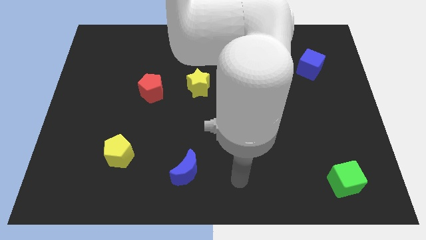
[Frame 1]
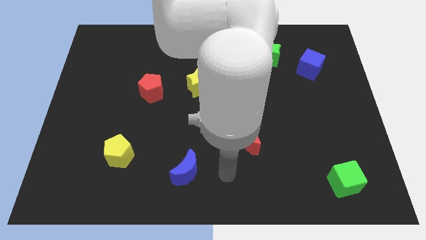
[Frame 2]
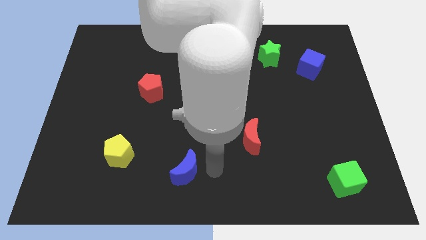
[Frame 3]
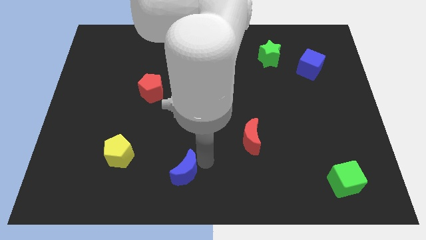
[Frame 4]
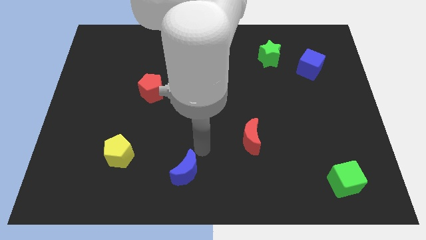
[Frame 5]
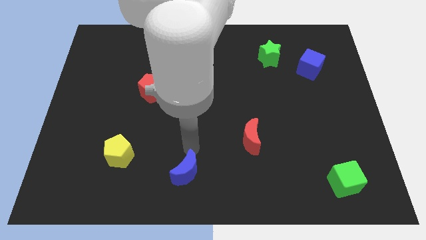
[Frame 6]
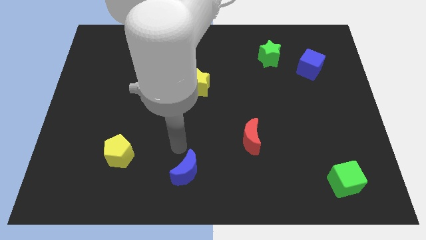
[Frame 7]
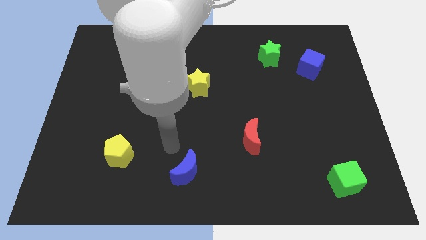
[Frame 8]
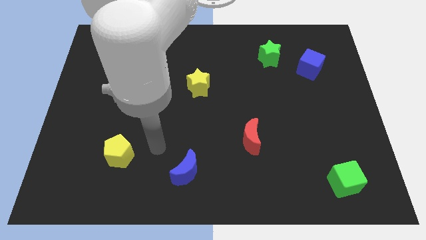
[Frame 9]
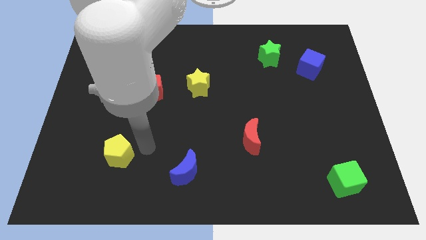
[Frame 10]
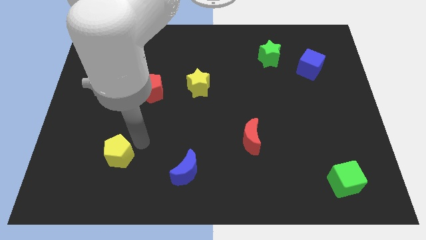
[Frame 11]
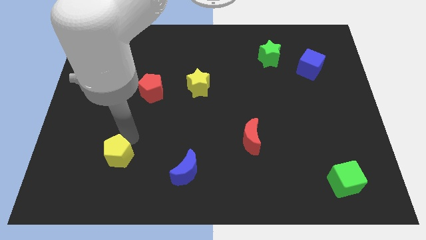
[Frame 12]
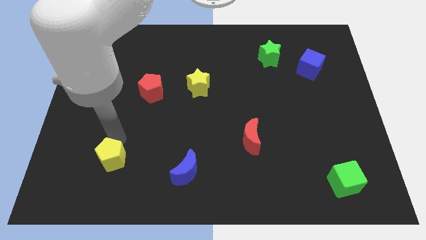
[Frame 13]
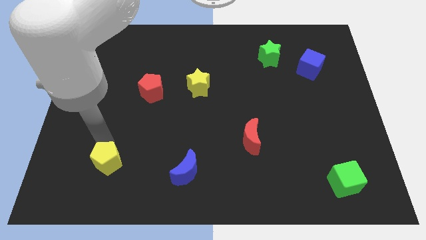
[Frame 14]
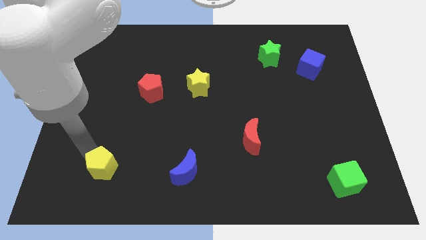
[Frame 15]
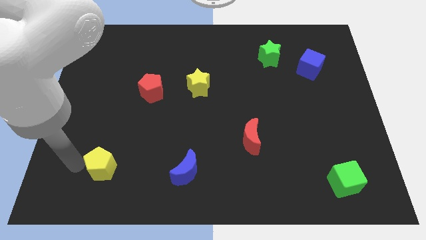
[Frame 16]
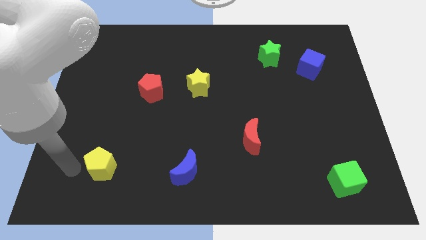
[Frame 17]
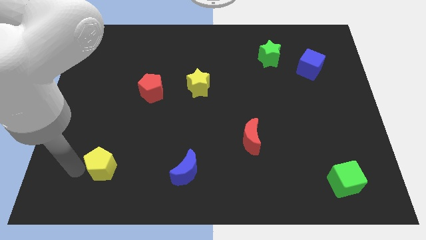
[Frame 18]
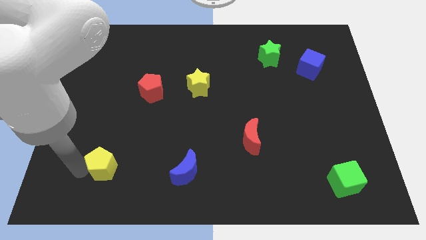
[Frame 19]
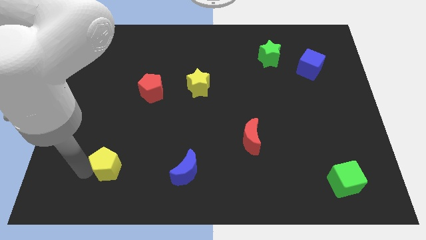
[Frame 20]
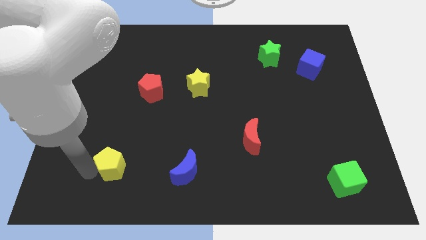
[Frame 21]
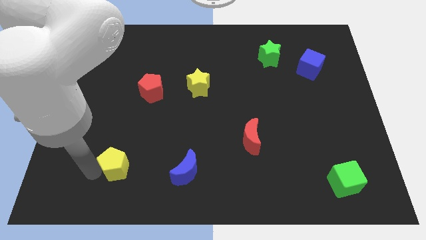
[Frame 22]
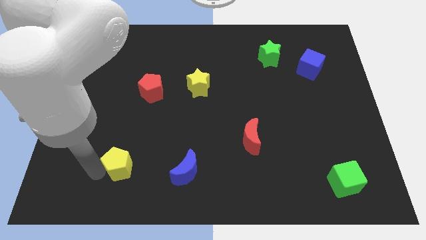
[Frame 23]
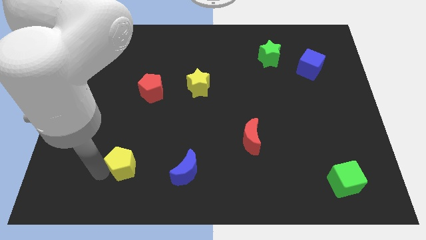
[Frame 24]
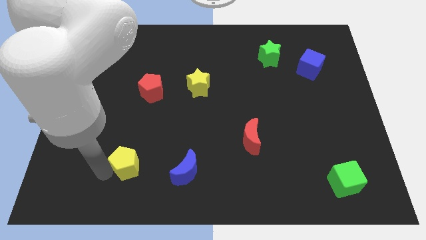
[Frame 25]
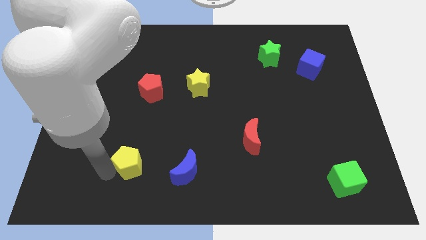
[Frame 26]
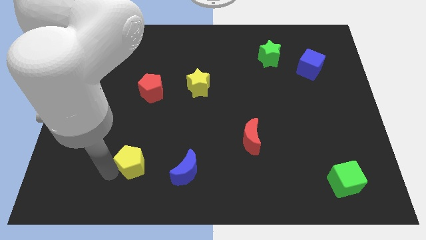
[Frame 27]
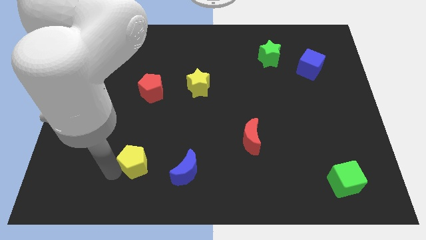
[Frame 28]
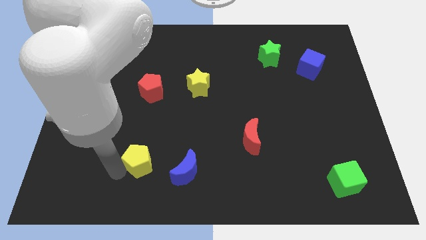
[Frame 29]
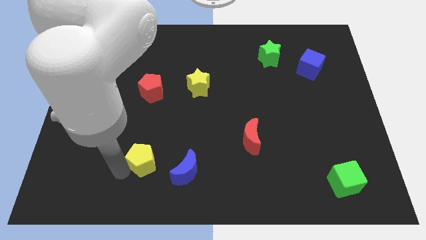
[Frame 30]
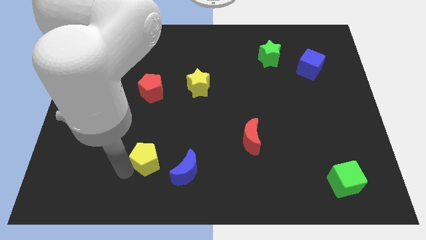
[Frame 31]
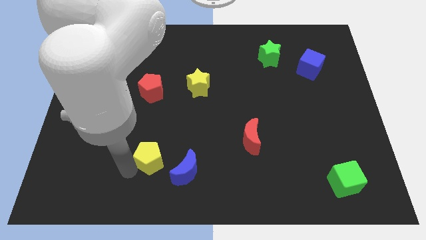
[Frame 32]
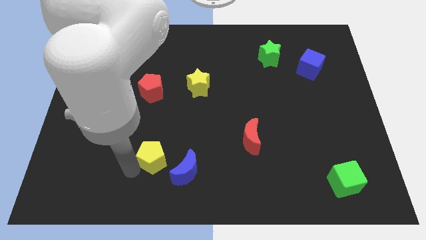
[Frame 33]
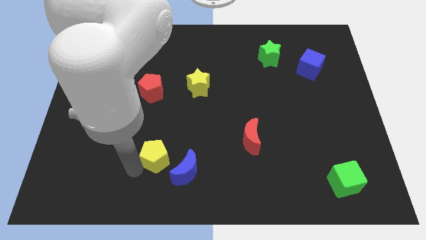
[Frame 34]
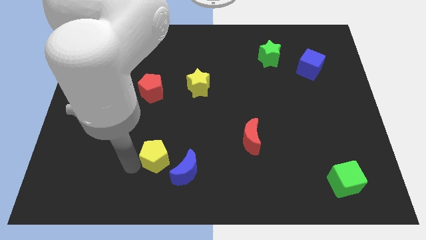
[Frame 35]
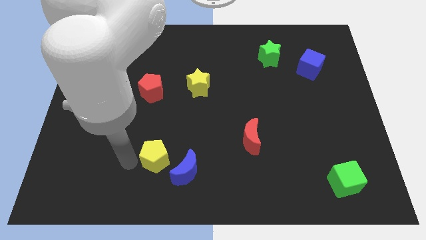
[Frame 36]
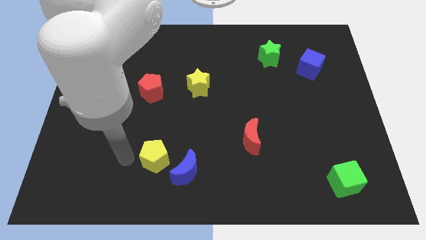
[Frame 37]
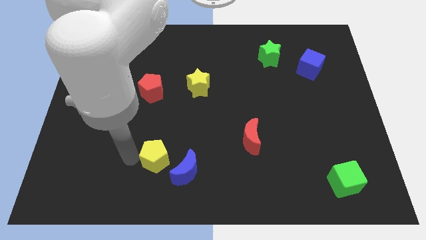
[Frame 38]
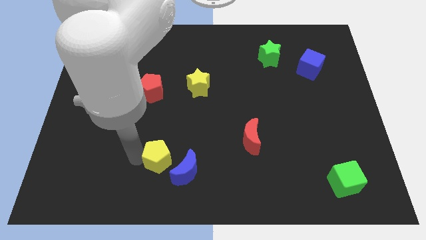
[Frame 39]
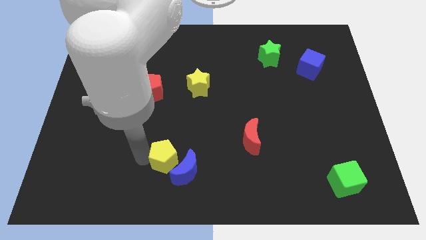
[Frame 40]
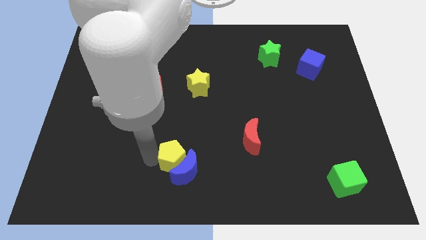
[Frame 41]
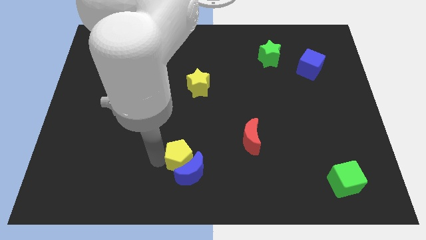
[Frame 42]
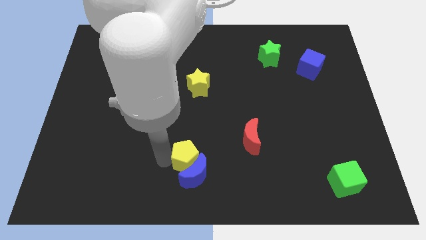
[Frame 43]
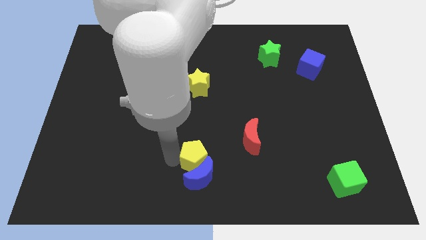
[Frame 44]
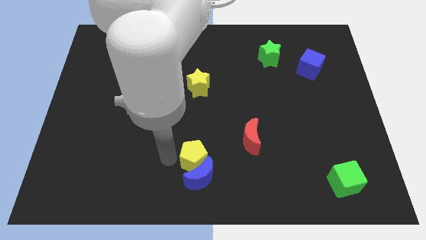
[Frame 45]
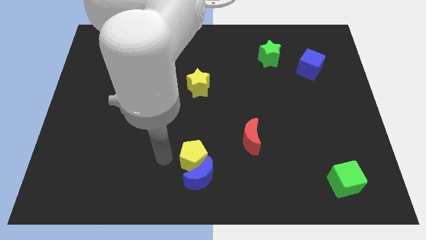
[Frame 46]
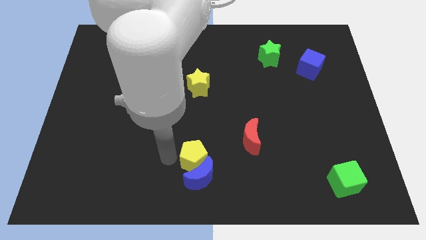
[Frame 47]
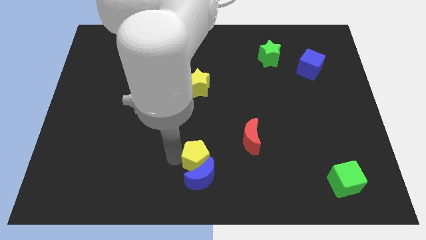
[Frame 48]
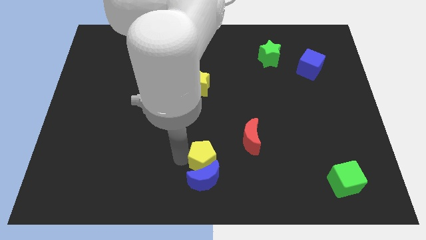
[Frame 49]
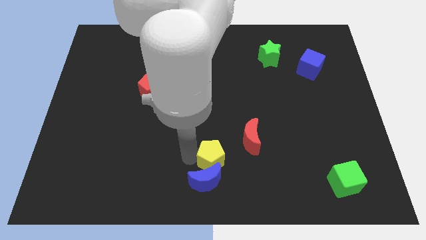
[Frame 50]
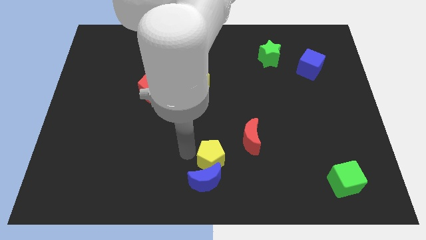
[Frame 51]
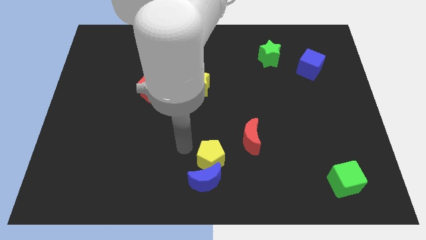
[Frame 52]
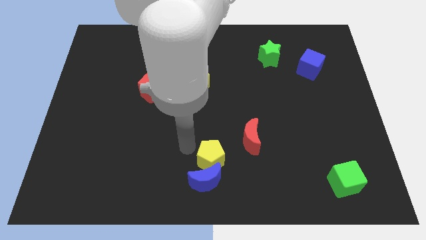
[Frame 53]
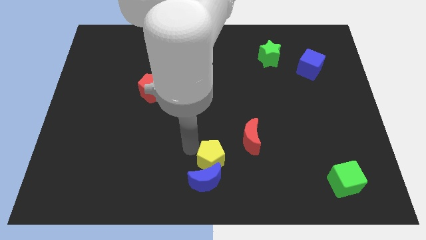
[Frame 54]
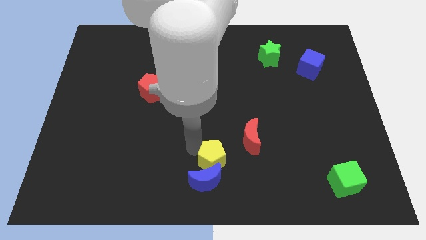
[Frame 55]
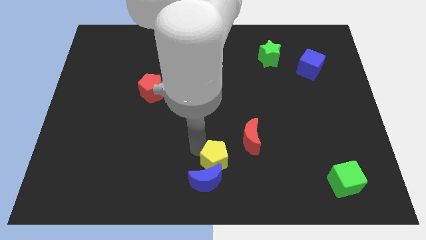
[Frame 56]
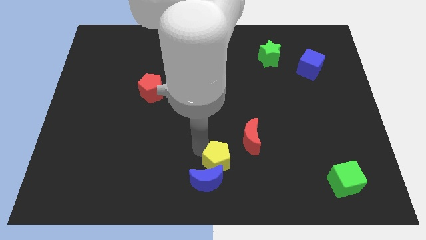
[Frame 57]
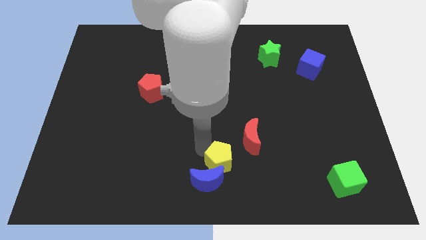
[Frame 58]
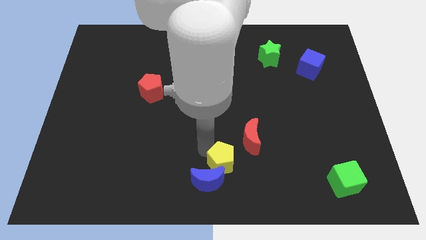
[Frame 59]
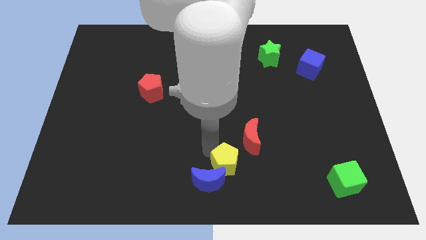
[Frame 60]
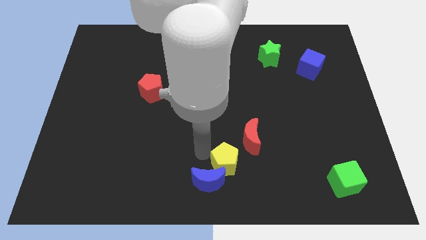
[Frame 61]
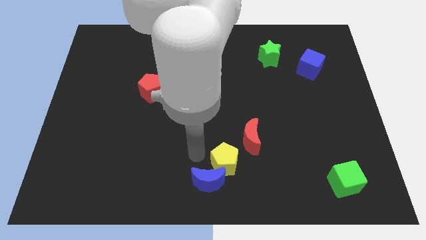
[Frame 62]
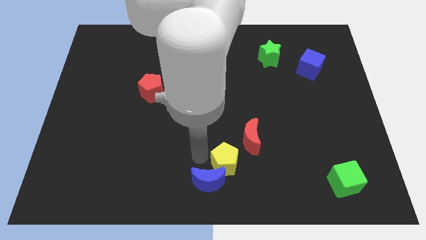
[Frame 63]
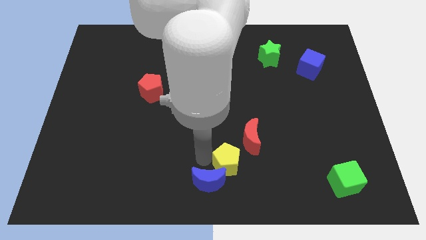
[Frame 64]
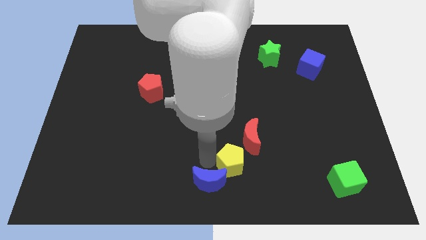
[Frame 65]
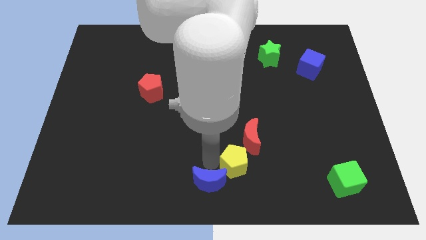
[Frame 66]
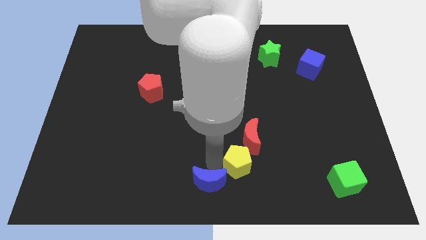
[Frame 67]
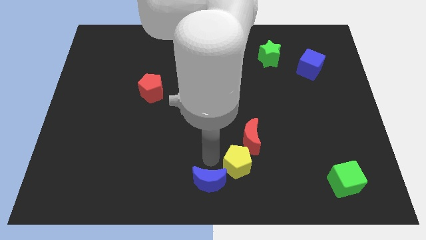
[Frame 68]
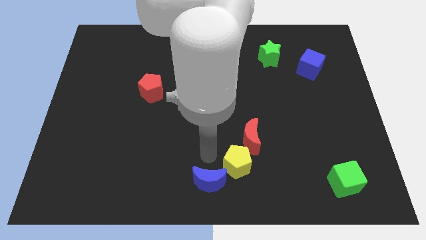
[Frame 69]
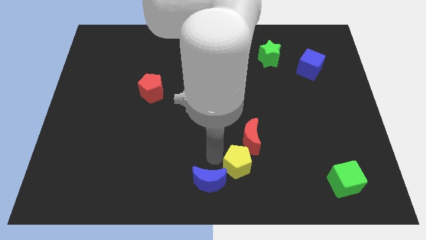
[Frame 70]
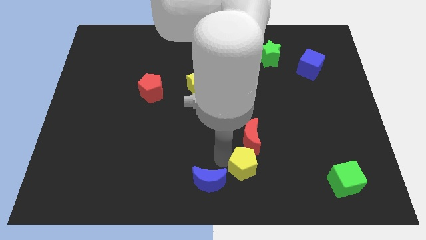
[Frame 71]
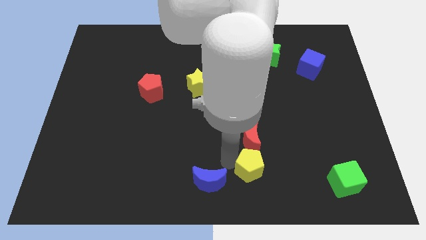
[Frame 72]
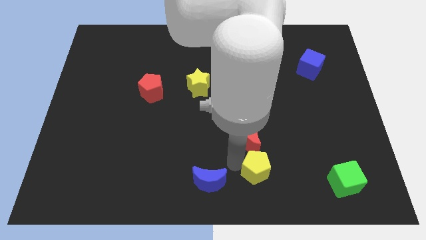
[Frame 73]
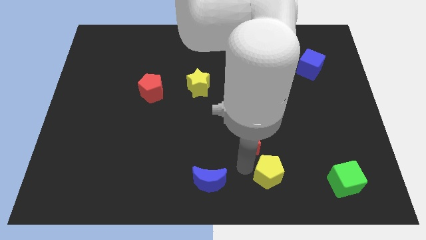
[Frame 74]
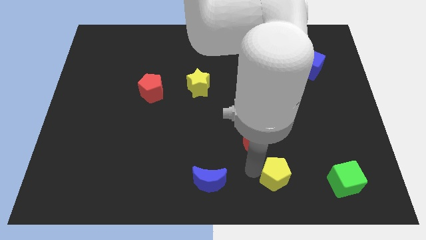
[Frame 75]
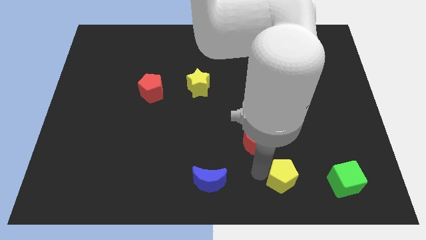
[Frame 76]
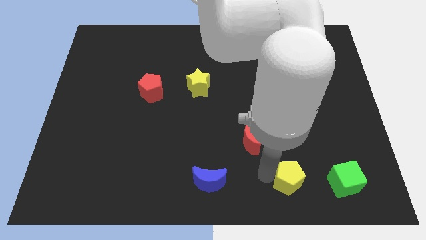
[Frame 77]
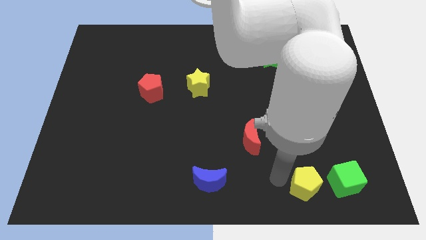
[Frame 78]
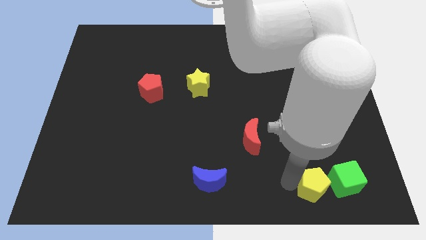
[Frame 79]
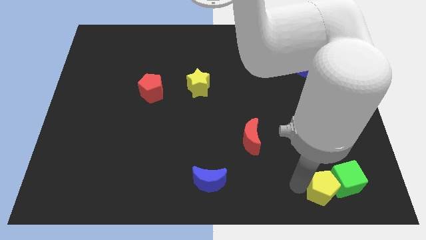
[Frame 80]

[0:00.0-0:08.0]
slide the yellow pentagon to the green cube
